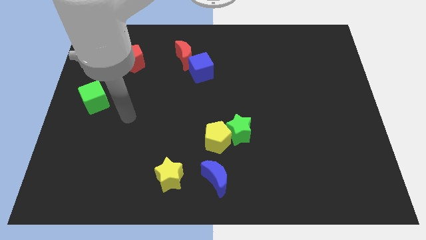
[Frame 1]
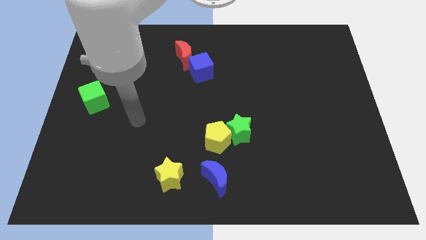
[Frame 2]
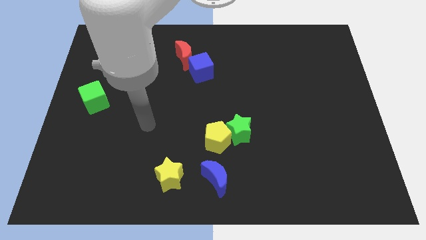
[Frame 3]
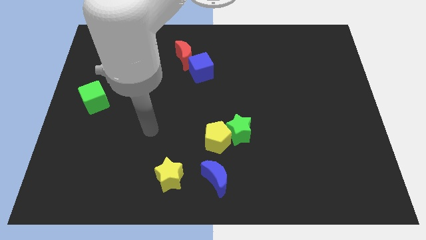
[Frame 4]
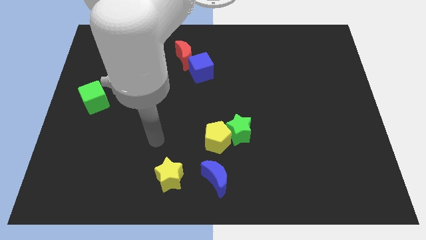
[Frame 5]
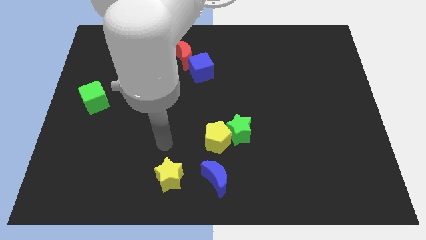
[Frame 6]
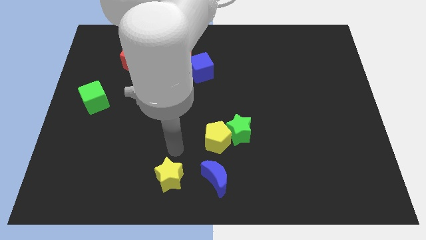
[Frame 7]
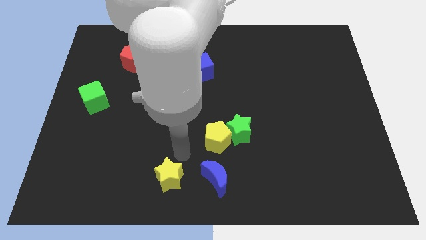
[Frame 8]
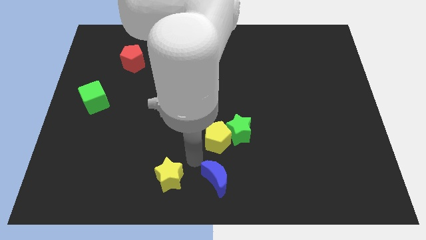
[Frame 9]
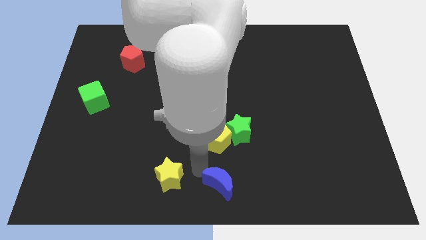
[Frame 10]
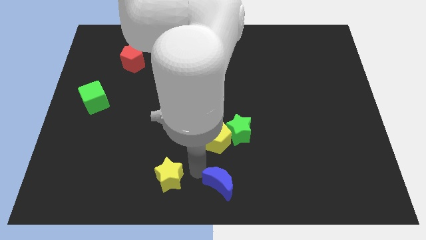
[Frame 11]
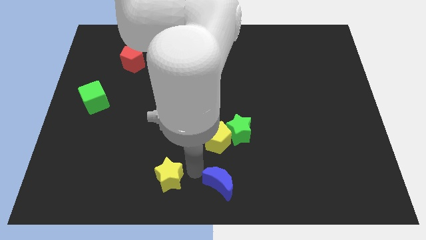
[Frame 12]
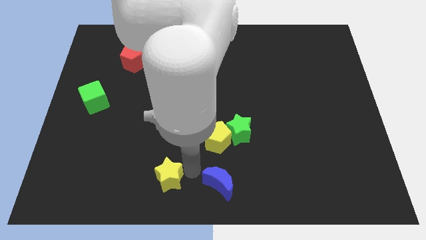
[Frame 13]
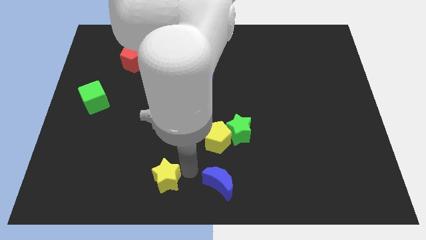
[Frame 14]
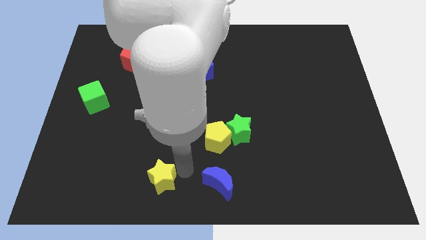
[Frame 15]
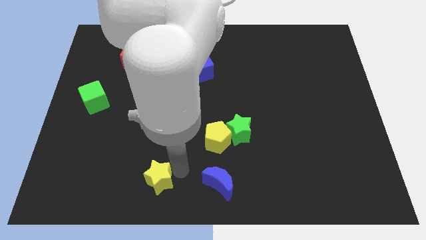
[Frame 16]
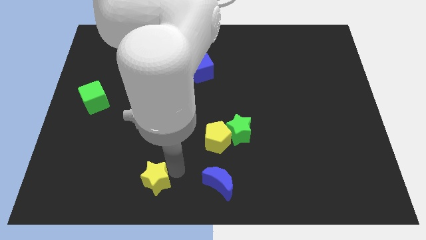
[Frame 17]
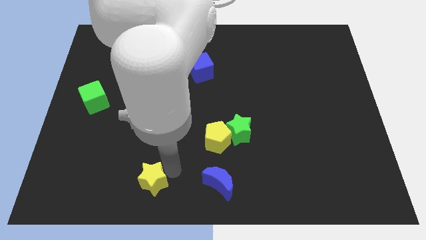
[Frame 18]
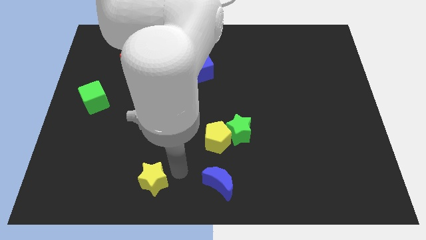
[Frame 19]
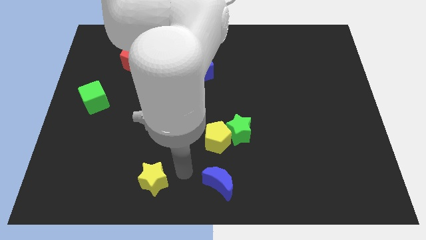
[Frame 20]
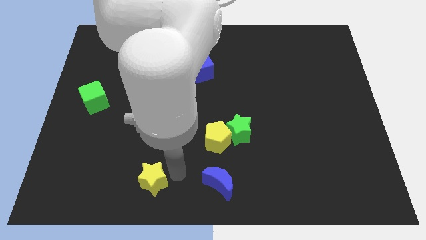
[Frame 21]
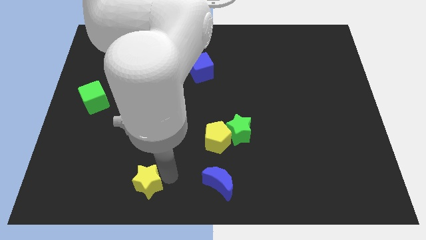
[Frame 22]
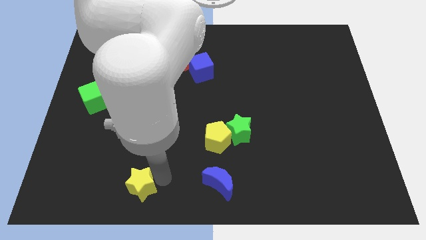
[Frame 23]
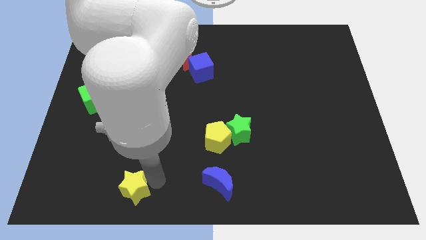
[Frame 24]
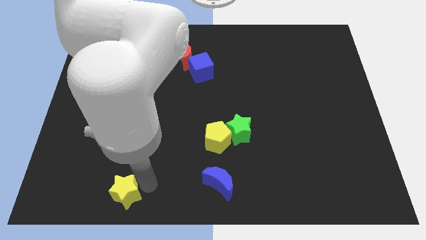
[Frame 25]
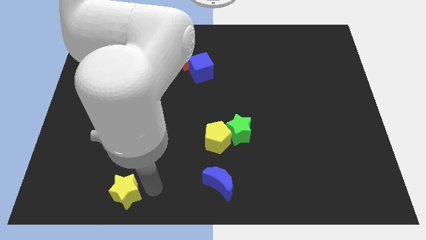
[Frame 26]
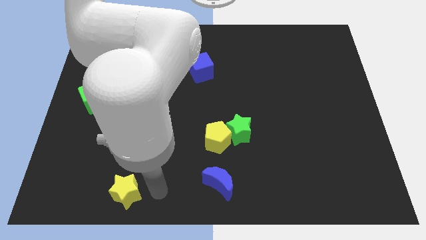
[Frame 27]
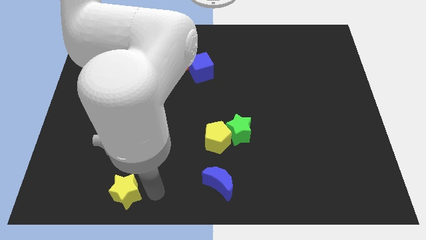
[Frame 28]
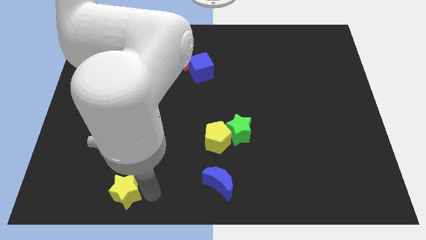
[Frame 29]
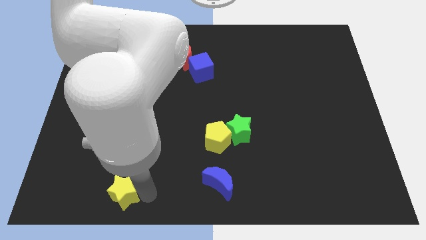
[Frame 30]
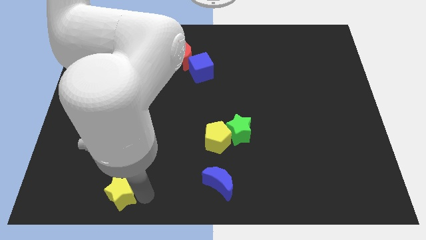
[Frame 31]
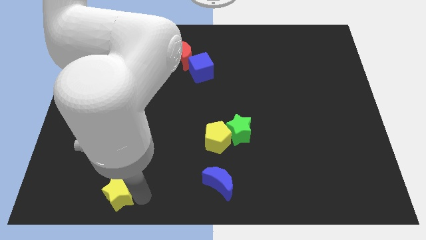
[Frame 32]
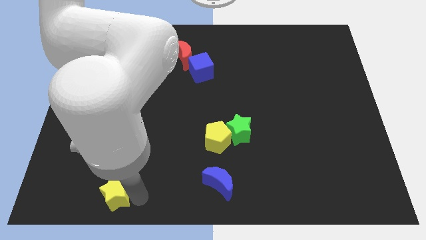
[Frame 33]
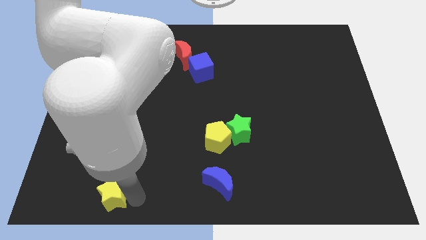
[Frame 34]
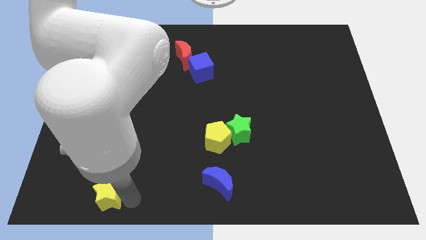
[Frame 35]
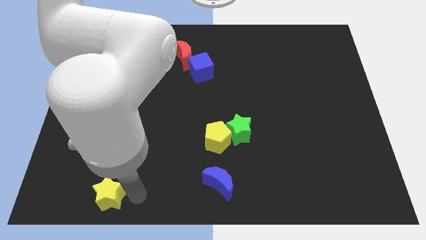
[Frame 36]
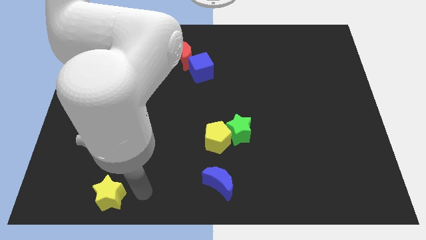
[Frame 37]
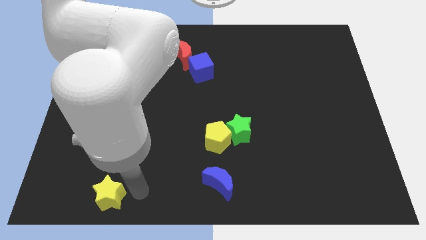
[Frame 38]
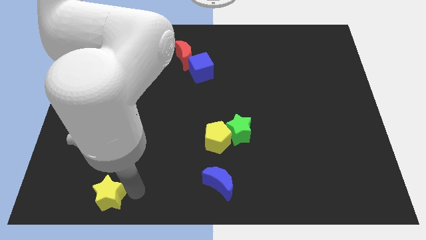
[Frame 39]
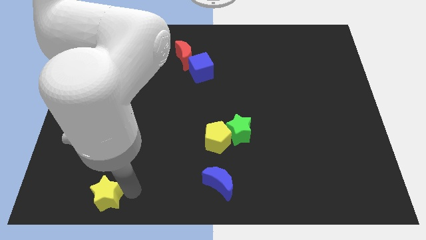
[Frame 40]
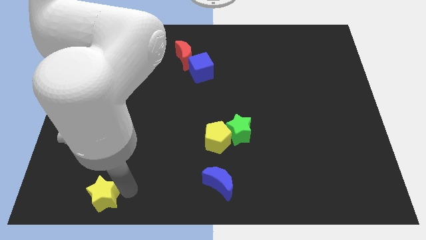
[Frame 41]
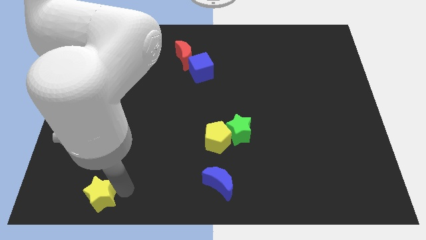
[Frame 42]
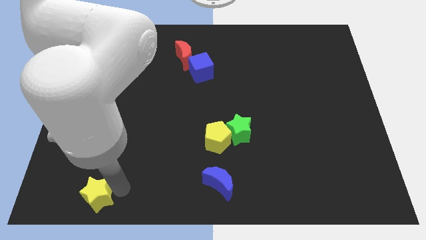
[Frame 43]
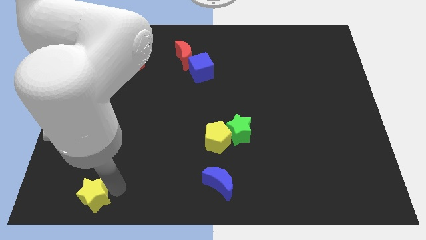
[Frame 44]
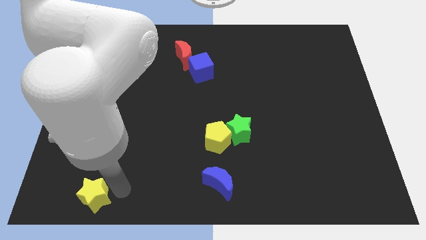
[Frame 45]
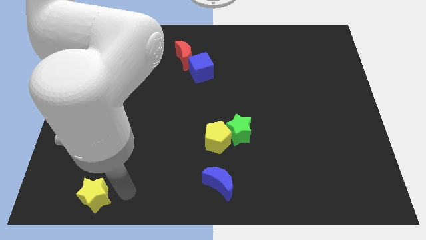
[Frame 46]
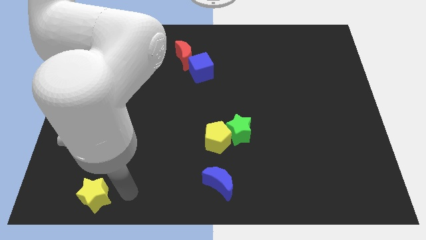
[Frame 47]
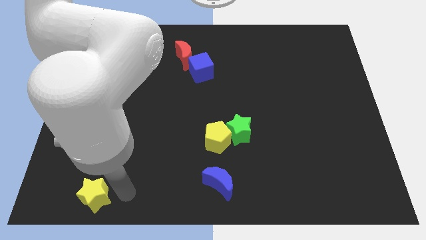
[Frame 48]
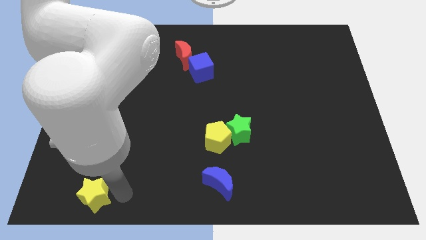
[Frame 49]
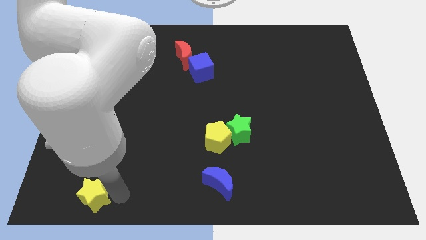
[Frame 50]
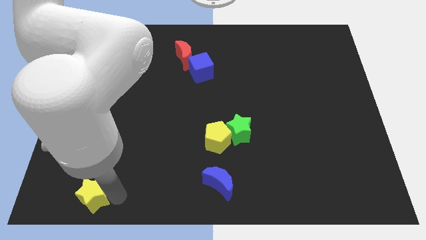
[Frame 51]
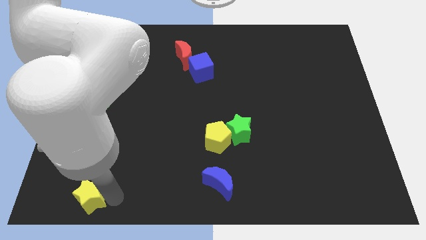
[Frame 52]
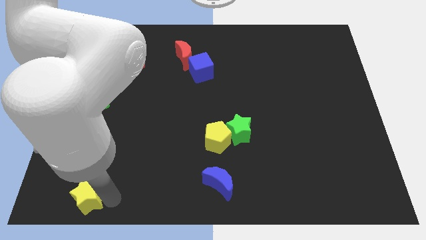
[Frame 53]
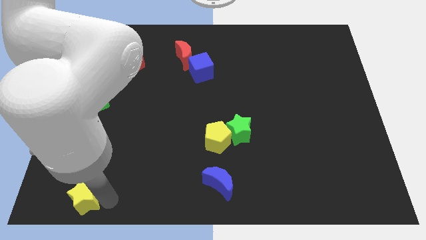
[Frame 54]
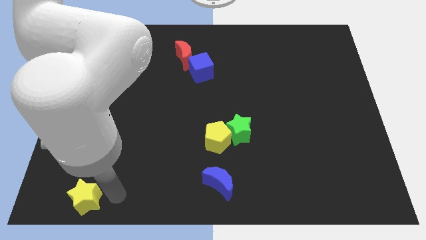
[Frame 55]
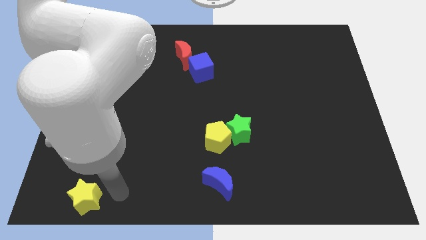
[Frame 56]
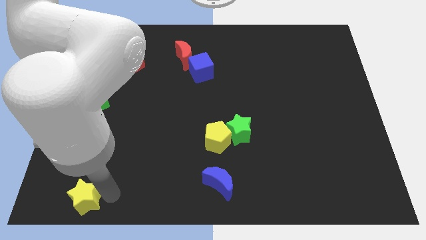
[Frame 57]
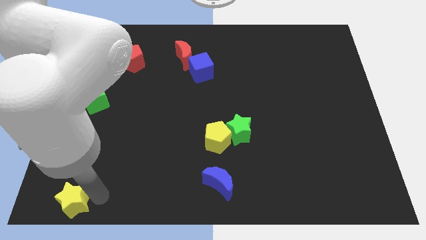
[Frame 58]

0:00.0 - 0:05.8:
slide the yellow star to the lower left corner

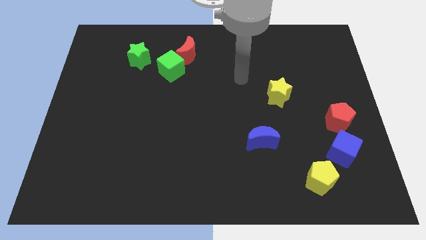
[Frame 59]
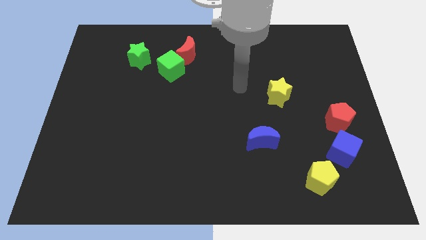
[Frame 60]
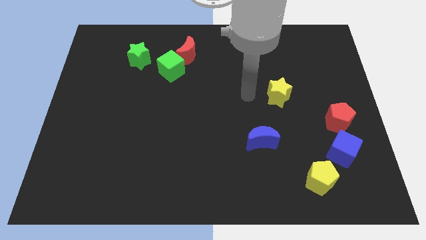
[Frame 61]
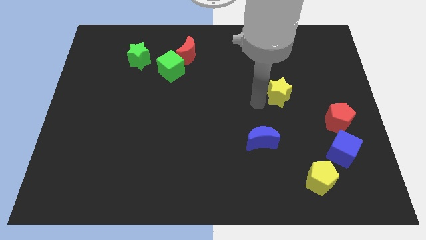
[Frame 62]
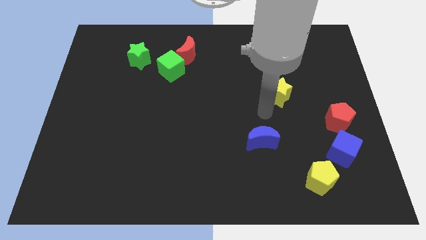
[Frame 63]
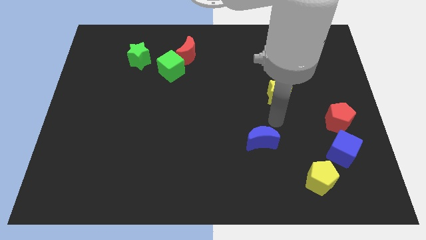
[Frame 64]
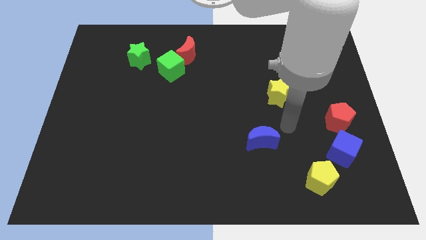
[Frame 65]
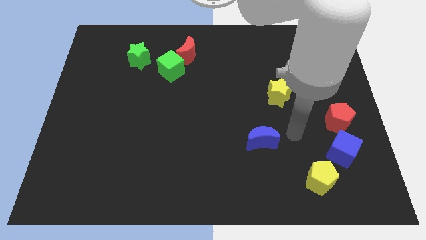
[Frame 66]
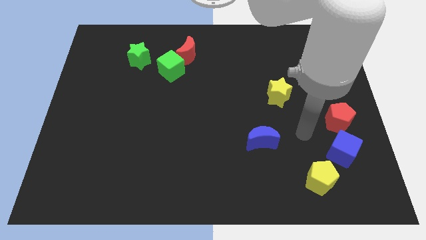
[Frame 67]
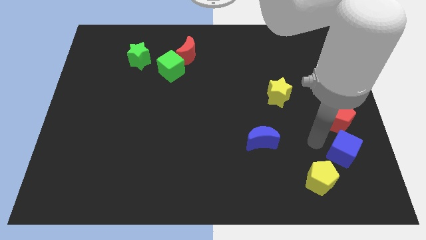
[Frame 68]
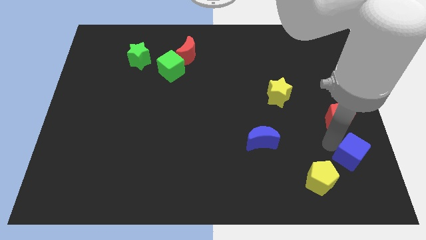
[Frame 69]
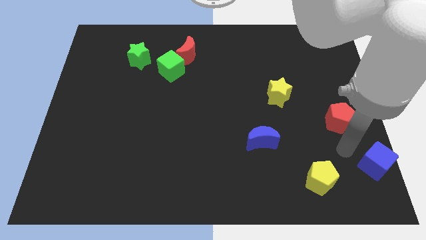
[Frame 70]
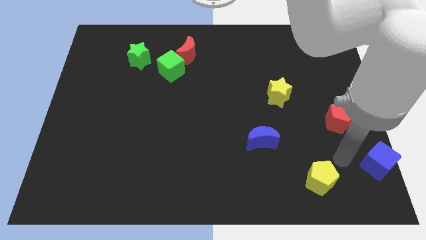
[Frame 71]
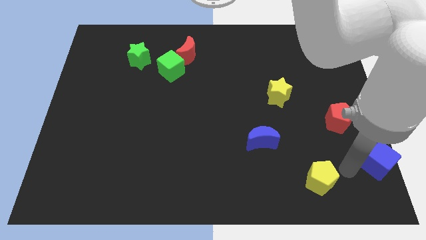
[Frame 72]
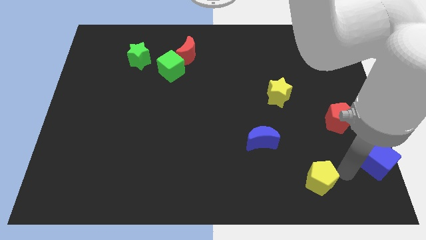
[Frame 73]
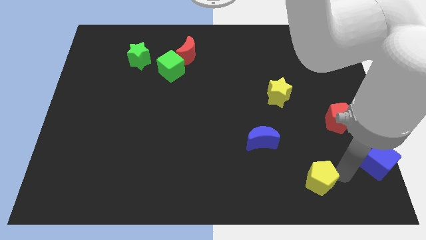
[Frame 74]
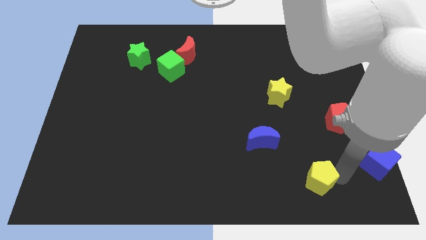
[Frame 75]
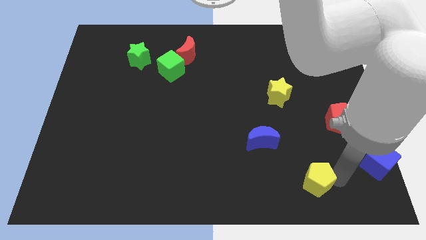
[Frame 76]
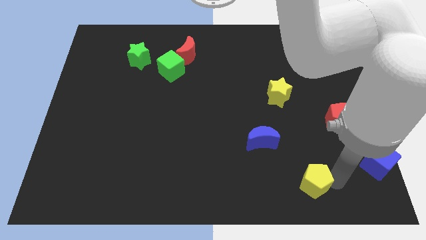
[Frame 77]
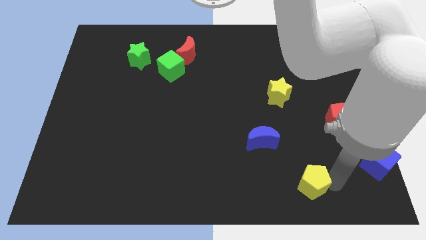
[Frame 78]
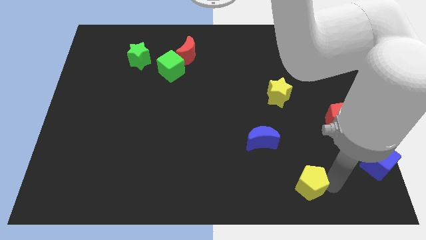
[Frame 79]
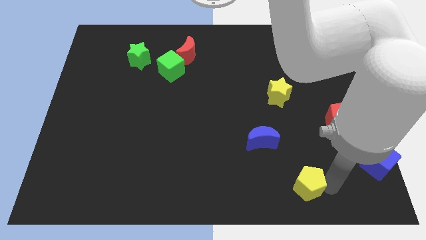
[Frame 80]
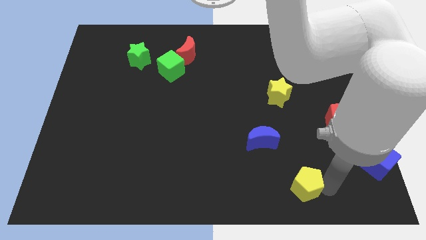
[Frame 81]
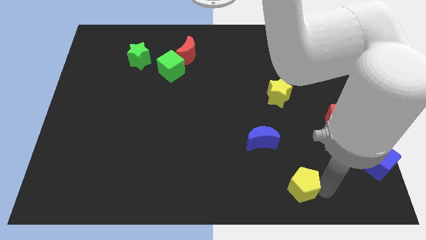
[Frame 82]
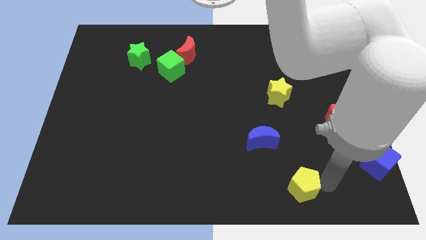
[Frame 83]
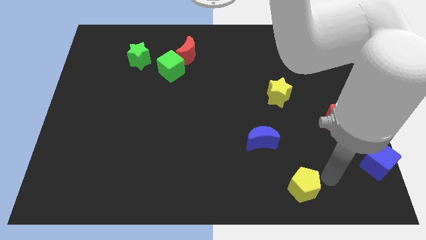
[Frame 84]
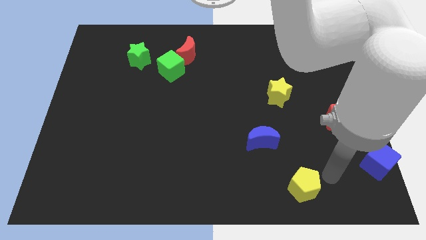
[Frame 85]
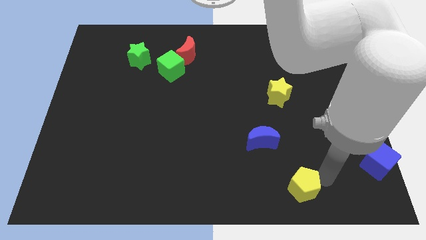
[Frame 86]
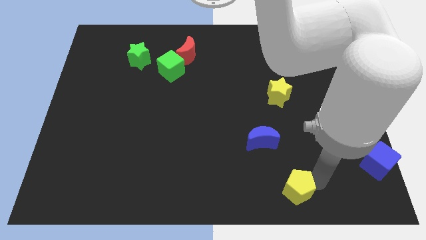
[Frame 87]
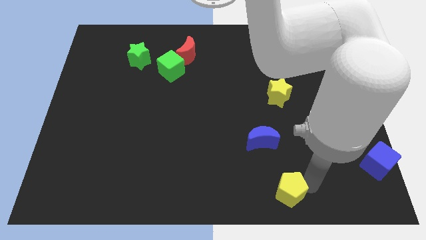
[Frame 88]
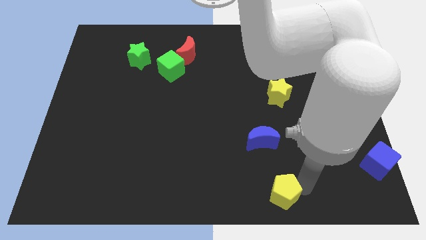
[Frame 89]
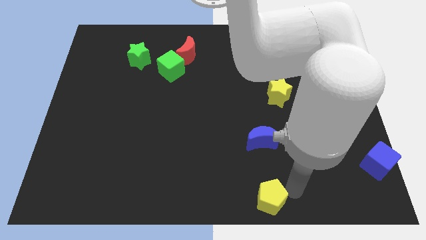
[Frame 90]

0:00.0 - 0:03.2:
move the yellow pentagon to the bottom side
